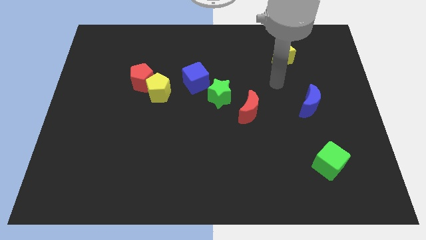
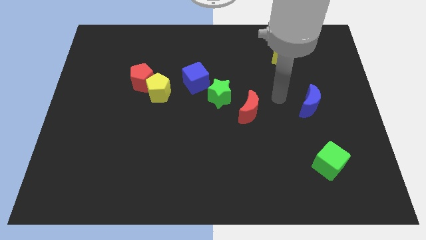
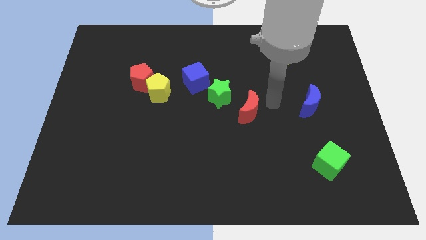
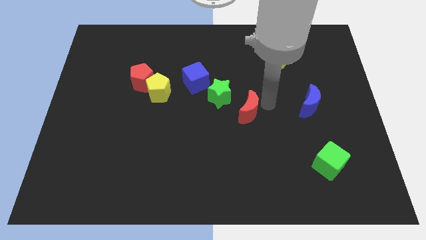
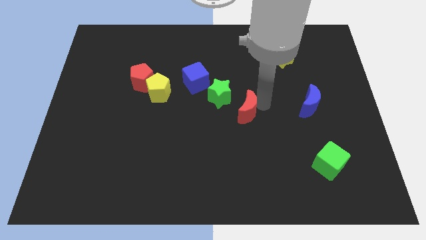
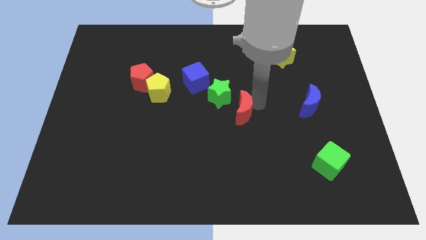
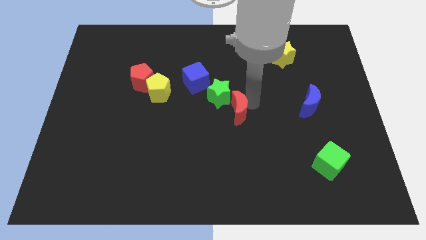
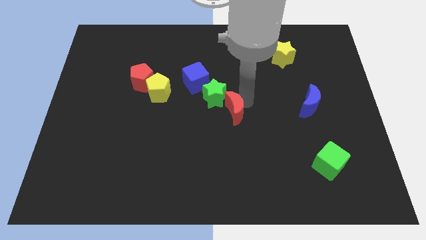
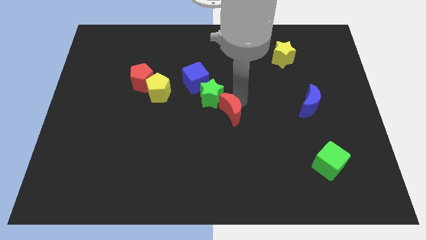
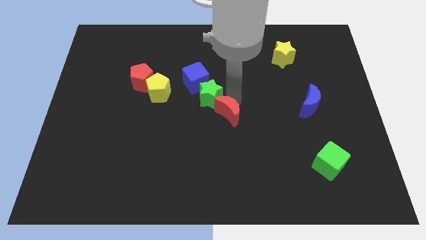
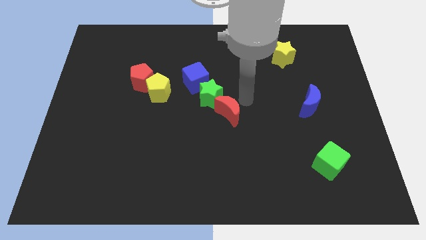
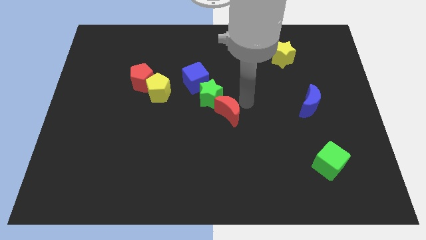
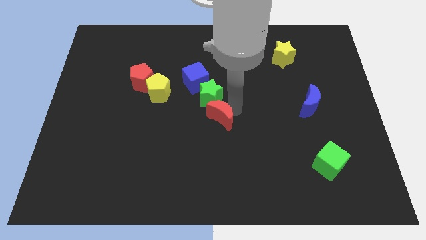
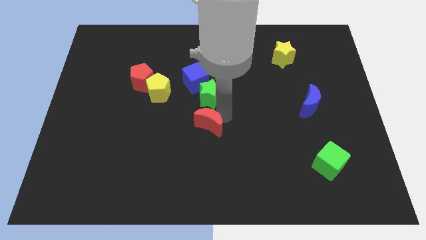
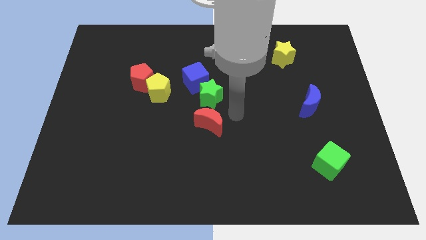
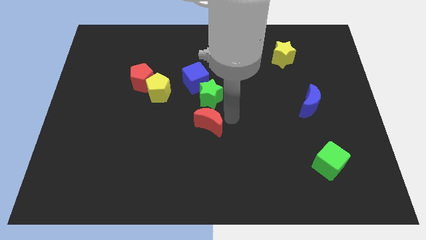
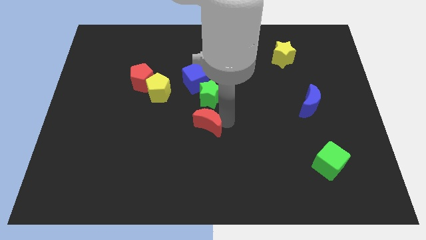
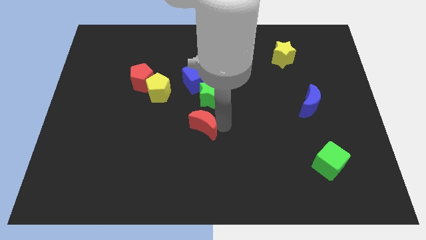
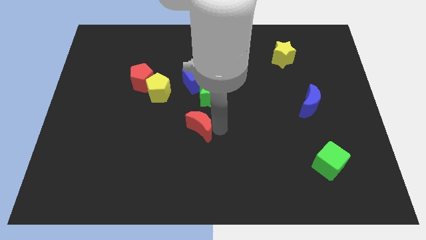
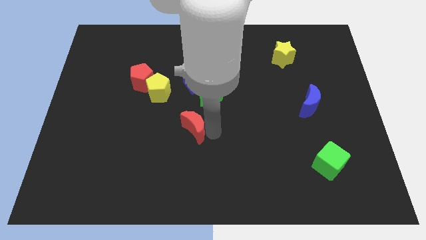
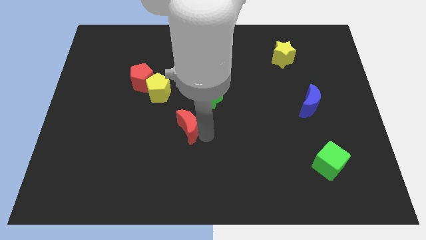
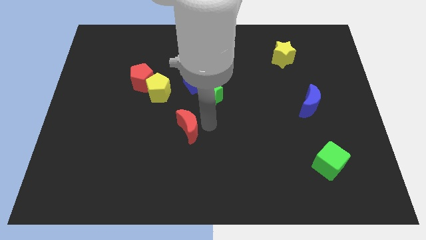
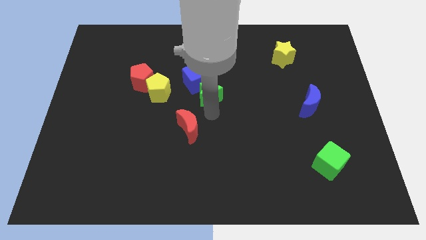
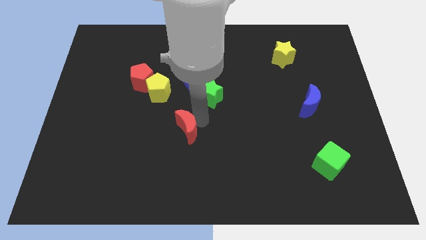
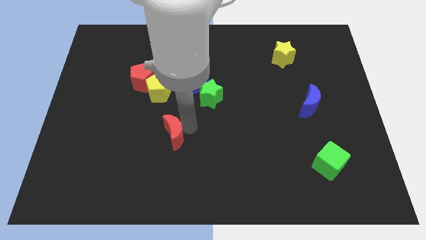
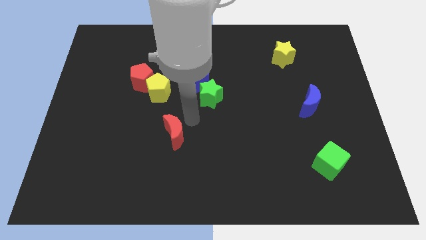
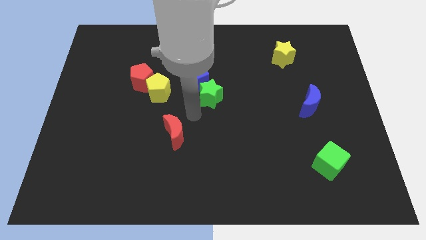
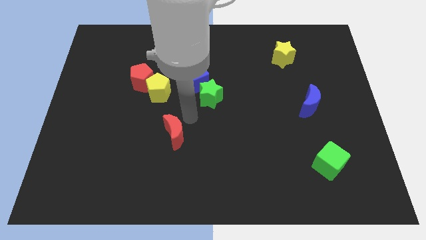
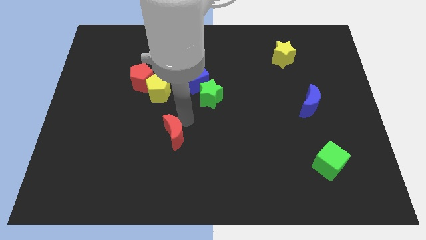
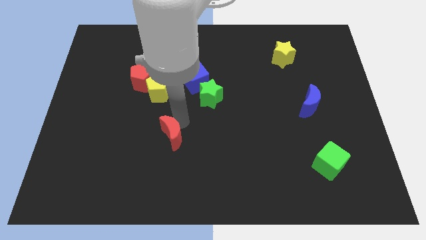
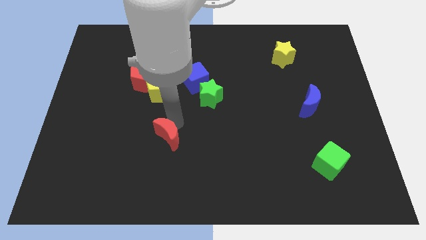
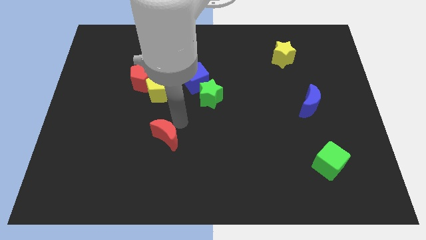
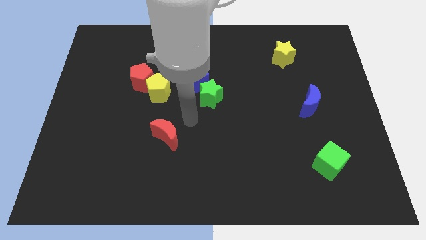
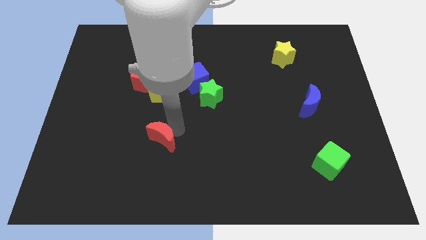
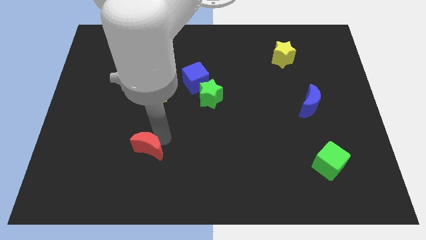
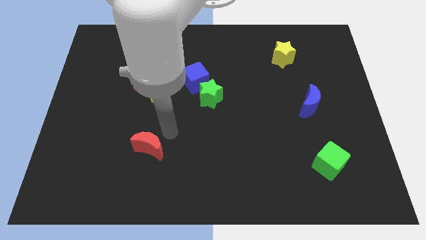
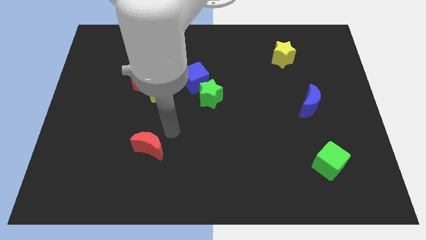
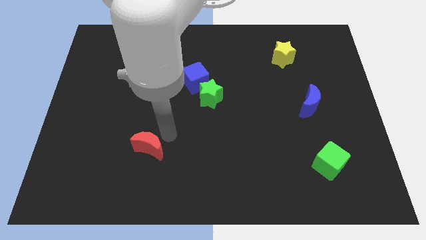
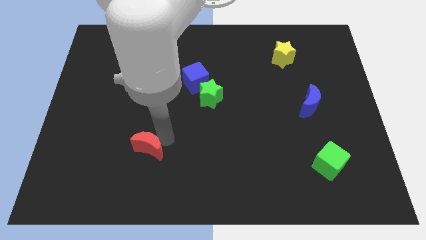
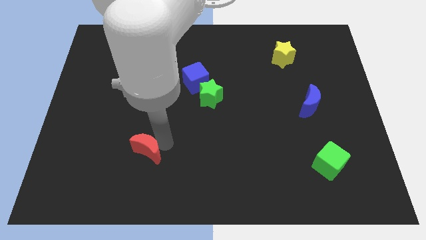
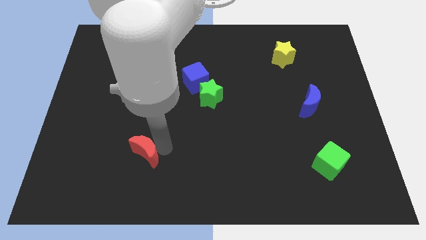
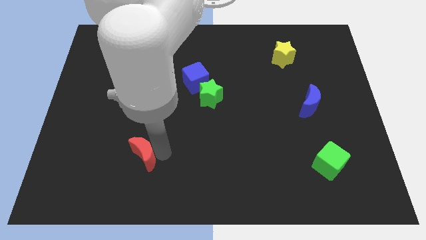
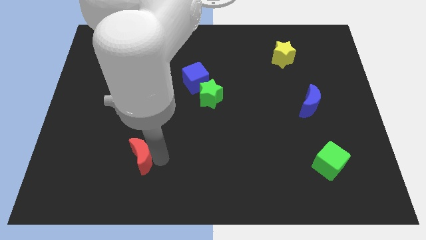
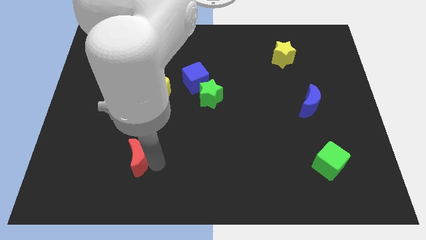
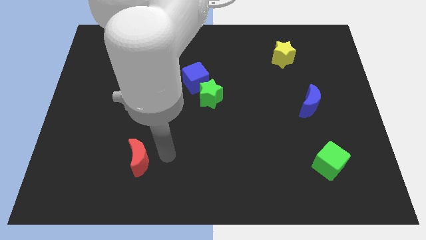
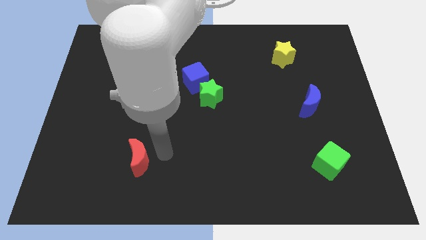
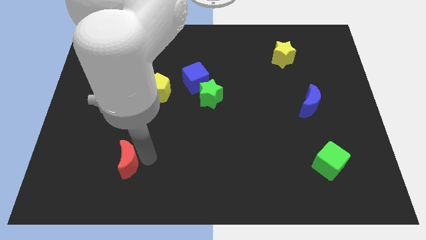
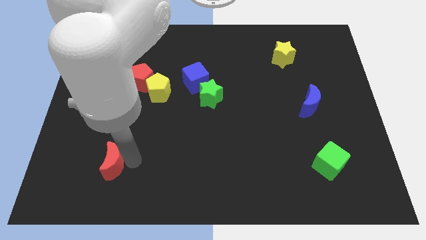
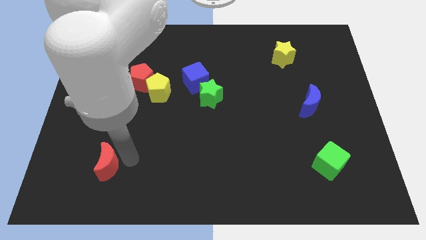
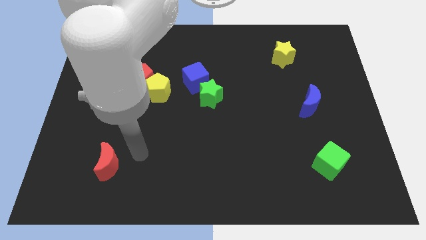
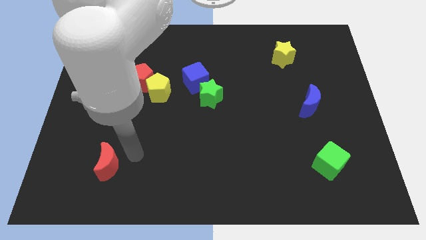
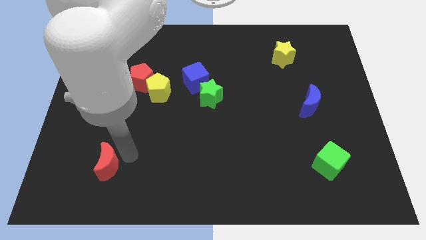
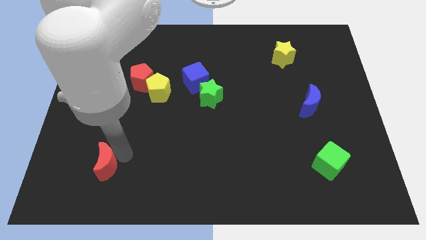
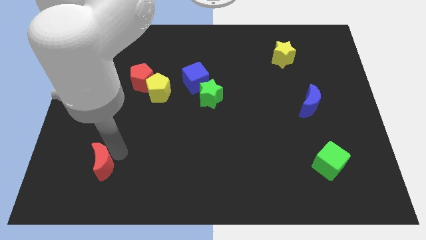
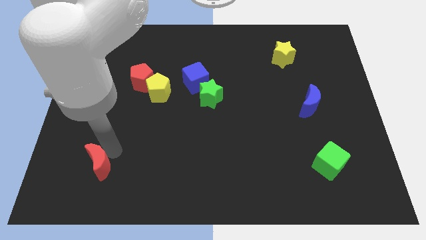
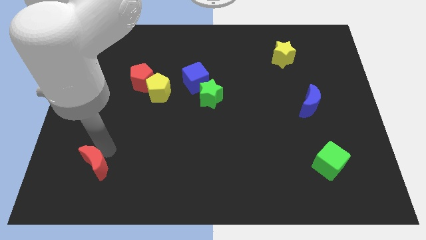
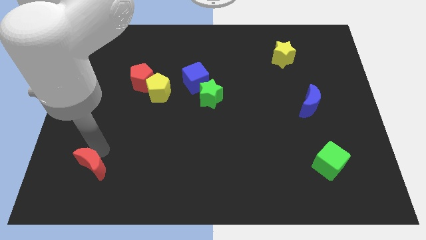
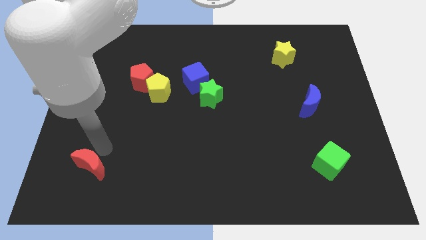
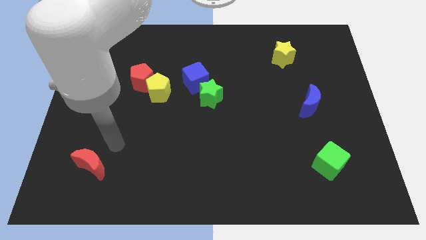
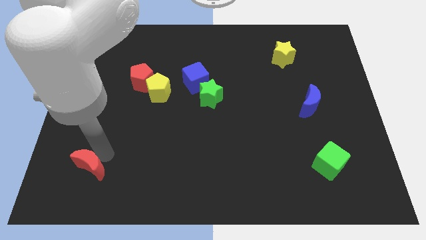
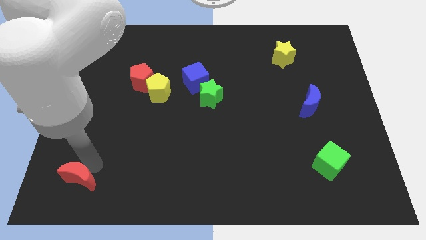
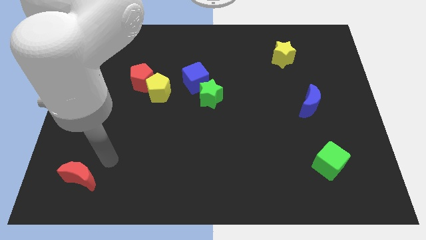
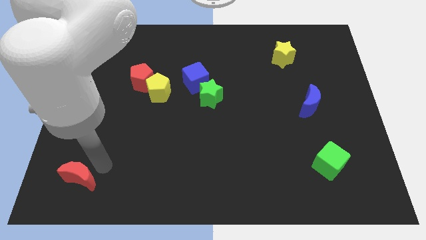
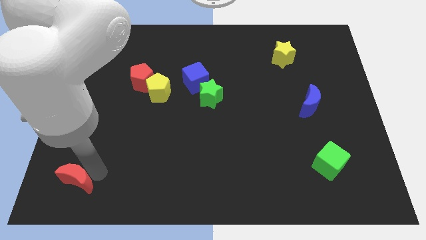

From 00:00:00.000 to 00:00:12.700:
slide the red moon to the bottom left corner
